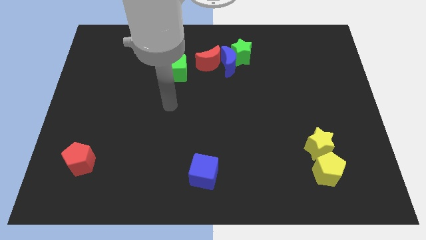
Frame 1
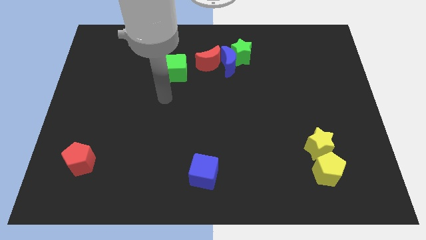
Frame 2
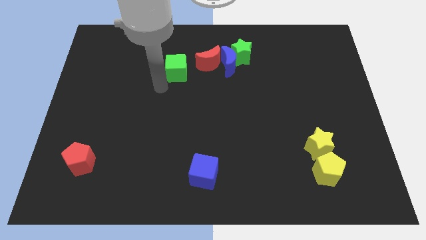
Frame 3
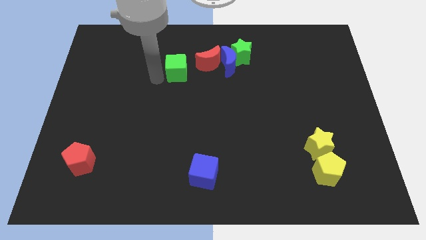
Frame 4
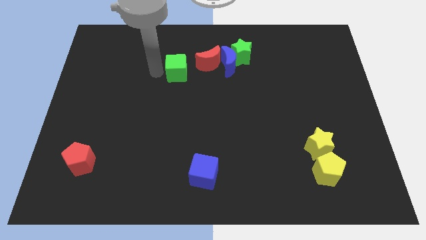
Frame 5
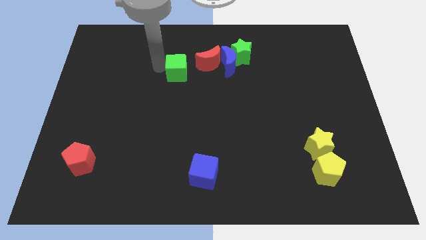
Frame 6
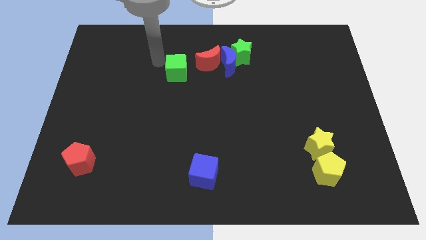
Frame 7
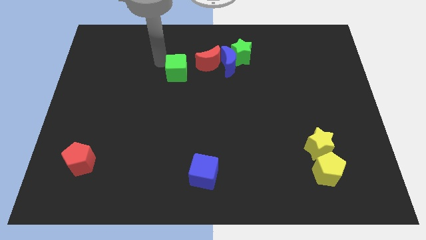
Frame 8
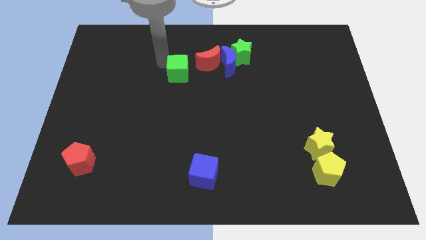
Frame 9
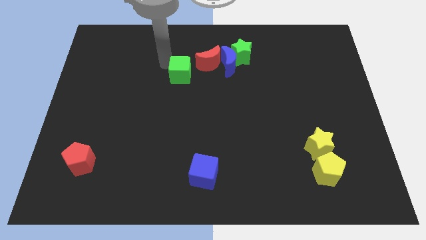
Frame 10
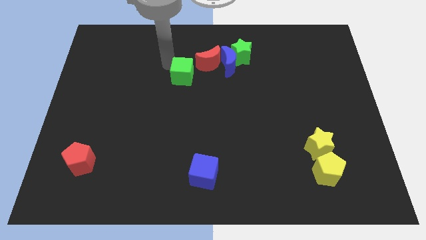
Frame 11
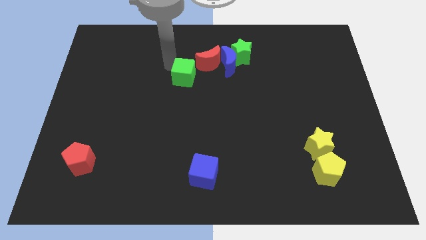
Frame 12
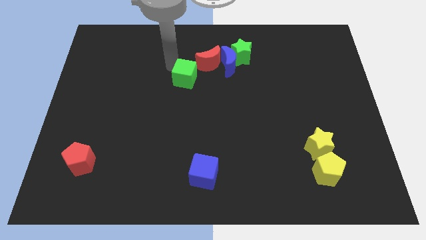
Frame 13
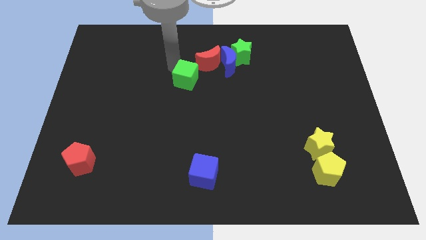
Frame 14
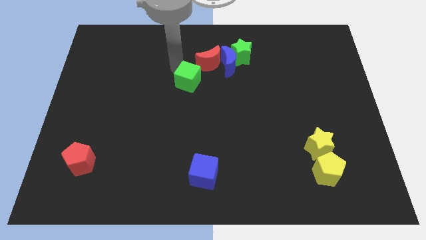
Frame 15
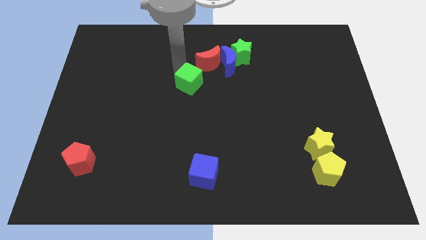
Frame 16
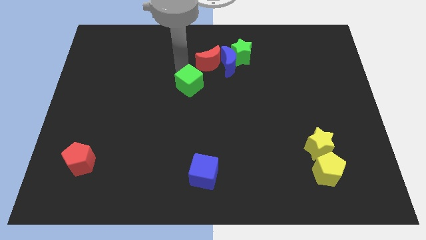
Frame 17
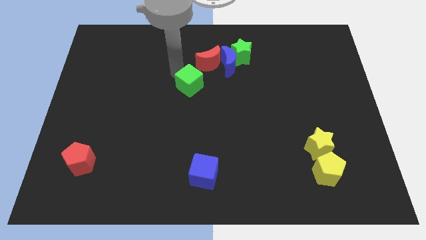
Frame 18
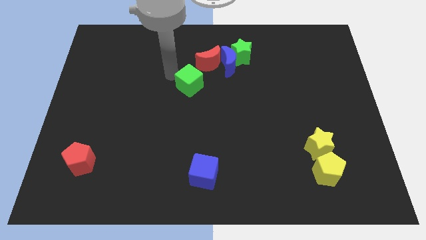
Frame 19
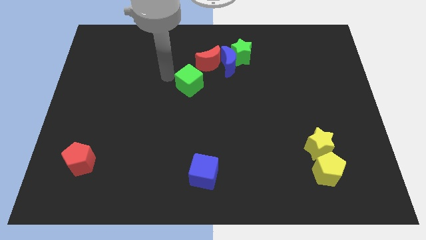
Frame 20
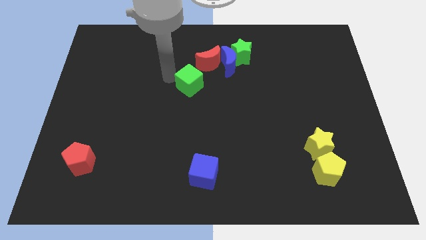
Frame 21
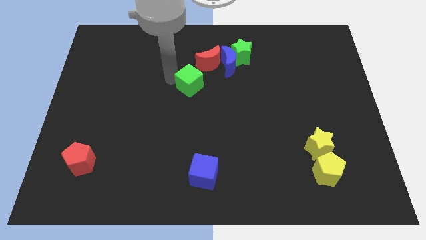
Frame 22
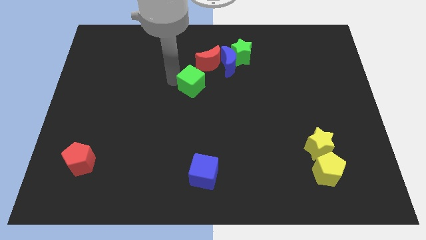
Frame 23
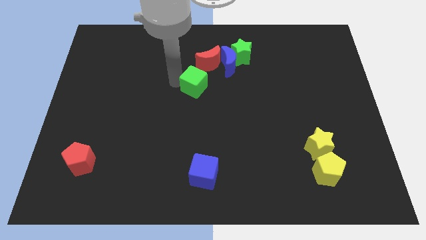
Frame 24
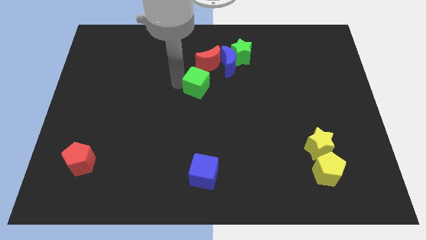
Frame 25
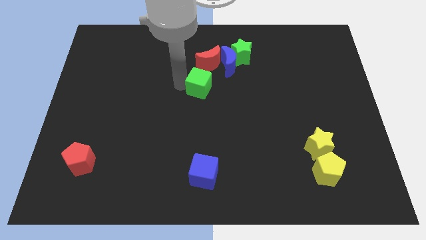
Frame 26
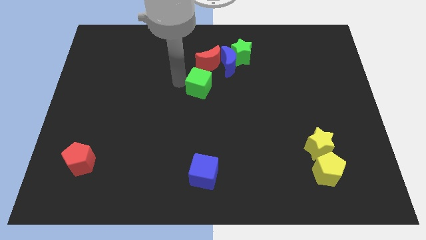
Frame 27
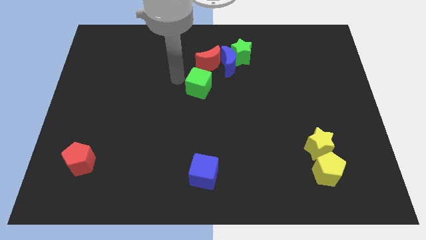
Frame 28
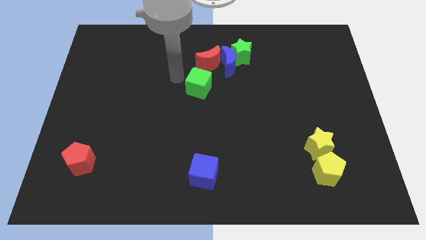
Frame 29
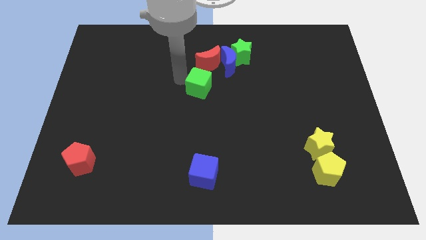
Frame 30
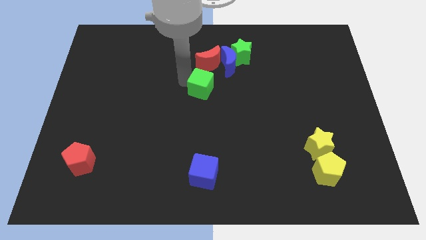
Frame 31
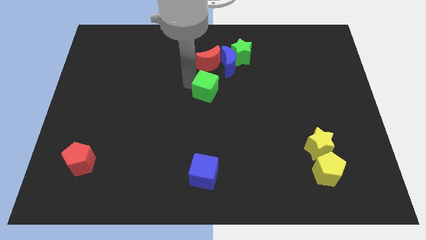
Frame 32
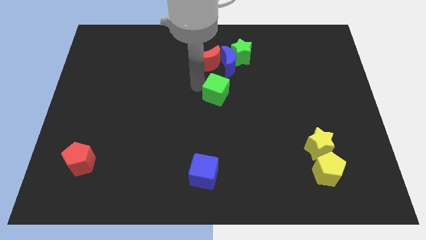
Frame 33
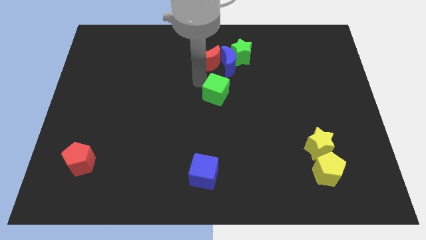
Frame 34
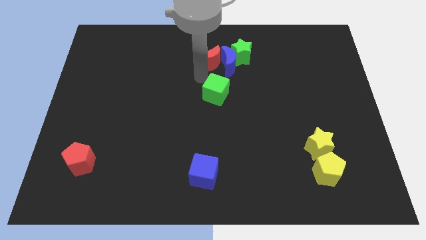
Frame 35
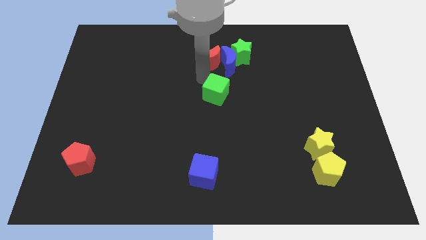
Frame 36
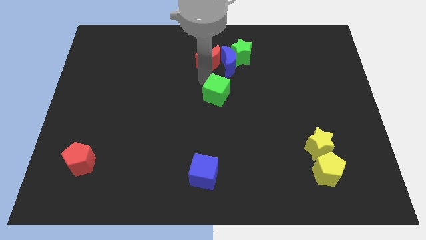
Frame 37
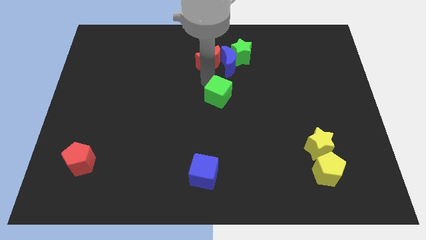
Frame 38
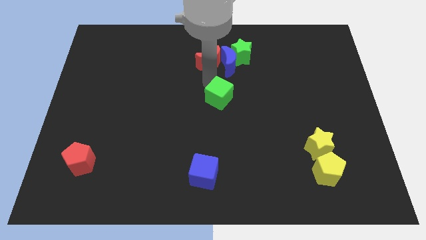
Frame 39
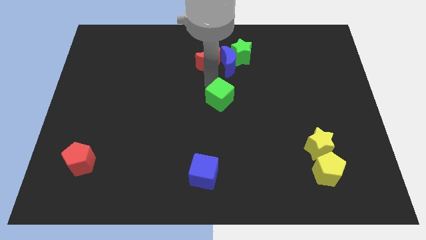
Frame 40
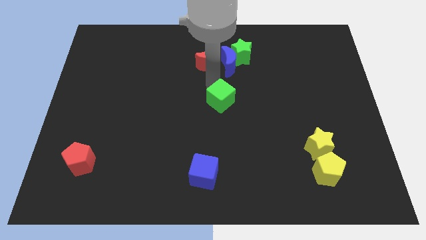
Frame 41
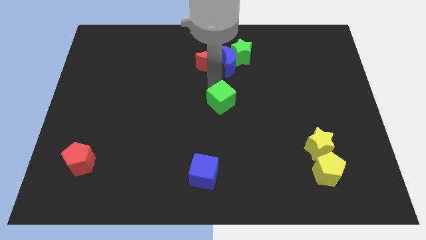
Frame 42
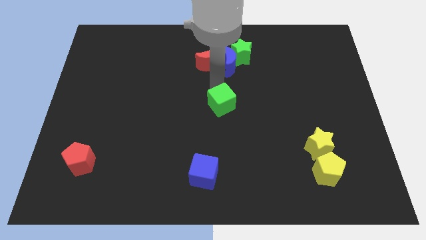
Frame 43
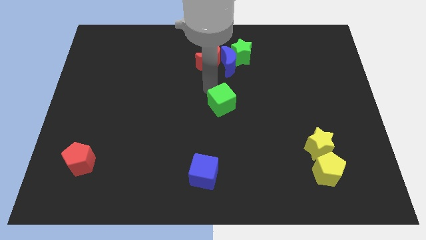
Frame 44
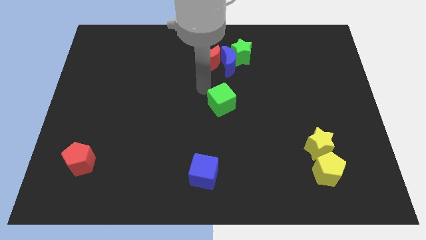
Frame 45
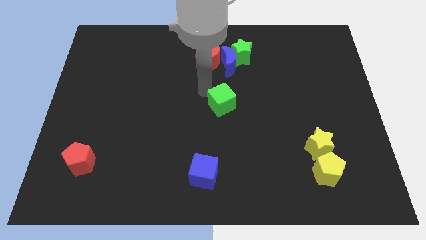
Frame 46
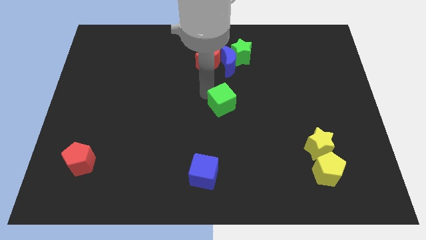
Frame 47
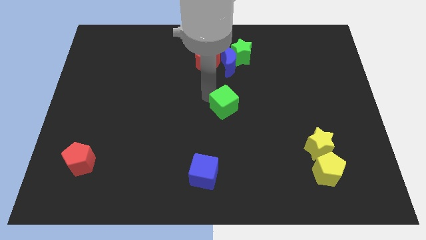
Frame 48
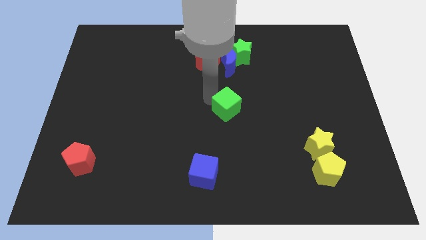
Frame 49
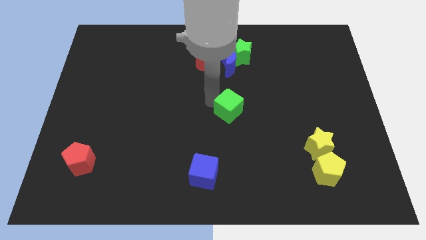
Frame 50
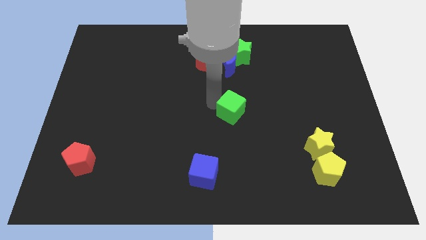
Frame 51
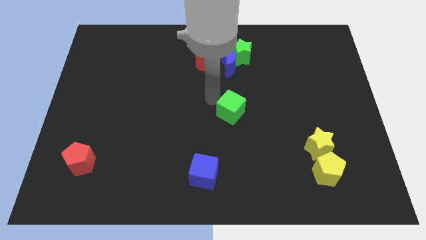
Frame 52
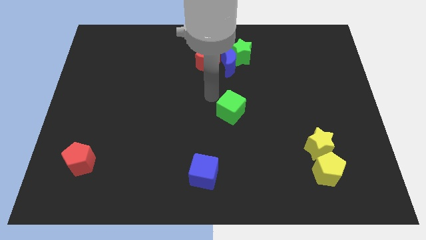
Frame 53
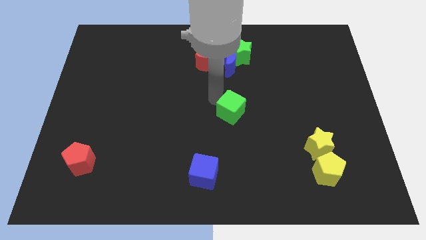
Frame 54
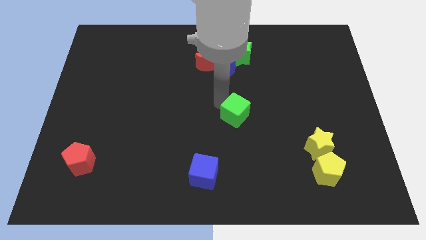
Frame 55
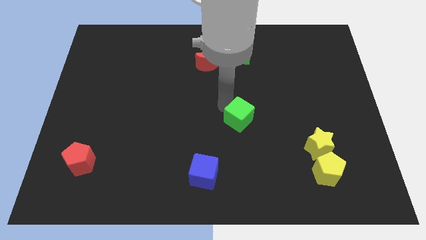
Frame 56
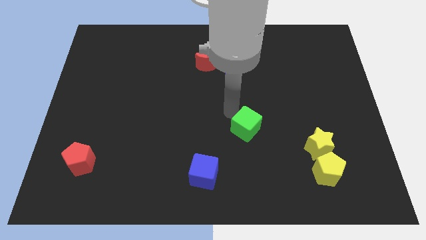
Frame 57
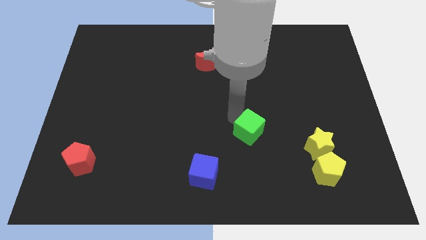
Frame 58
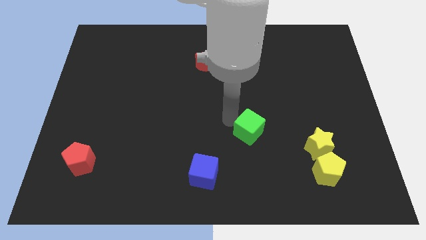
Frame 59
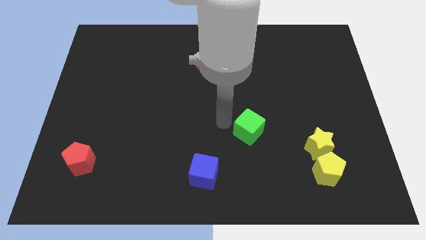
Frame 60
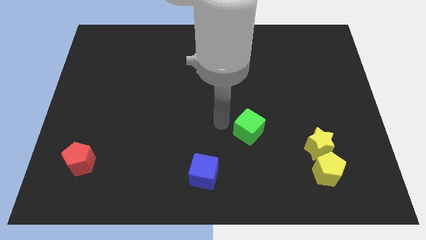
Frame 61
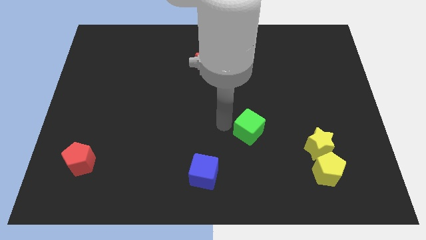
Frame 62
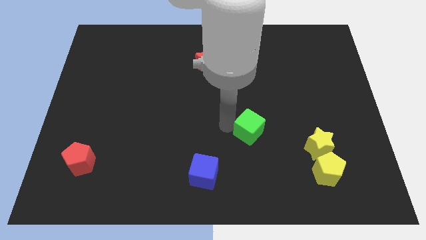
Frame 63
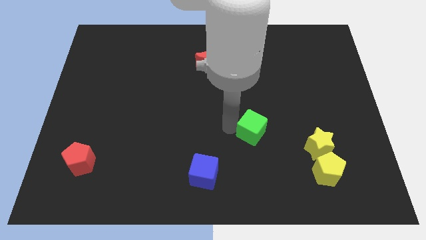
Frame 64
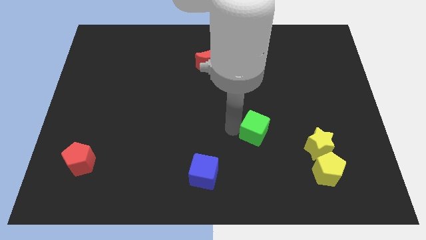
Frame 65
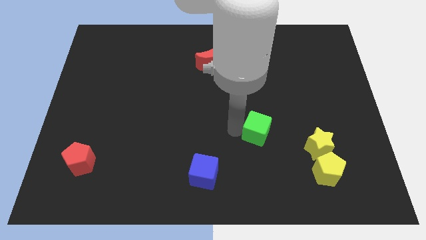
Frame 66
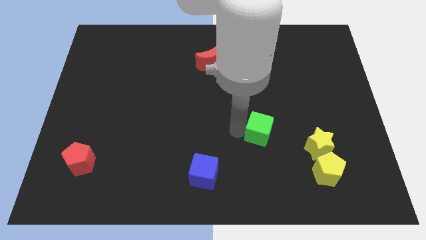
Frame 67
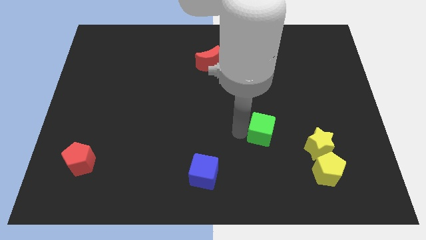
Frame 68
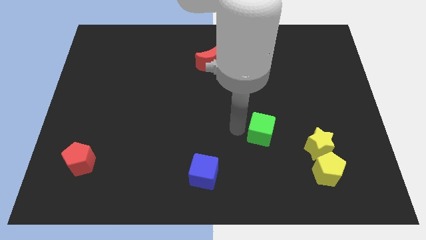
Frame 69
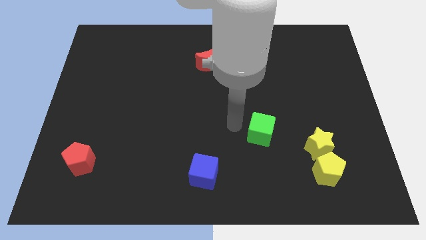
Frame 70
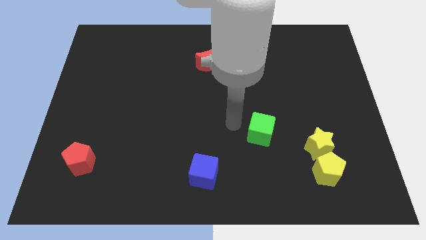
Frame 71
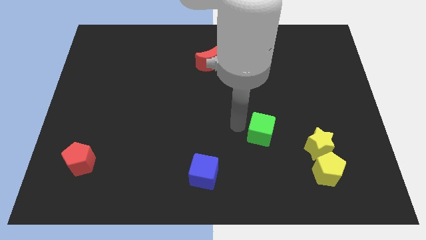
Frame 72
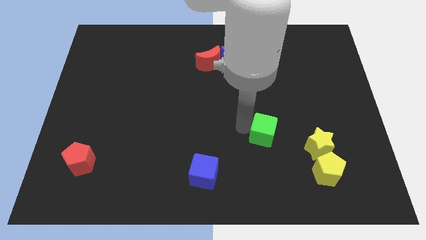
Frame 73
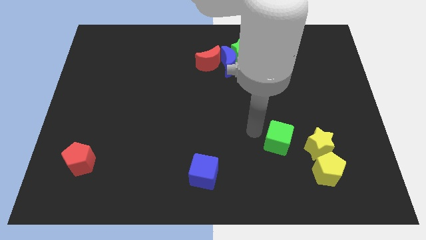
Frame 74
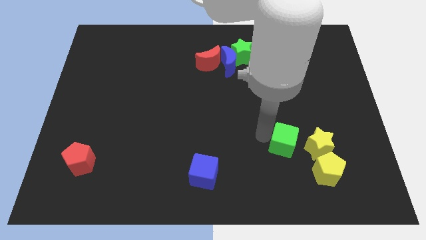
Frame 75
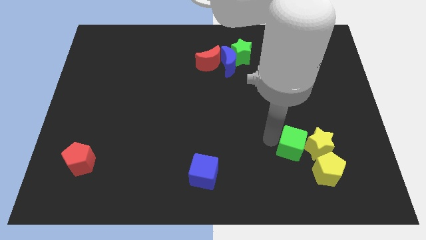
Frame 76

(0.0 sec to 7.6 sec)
move the green cube towards the yellow star

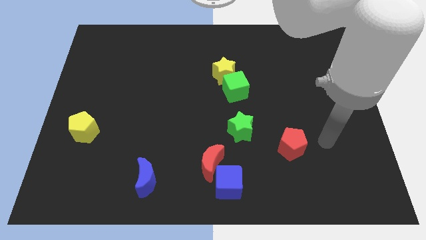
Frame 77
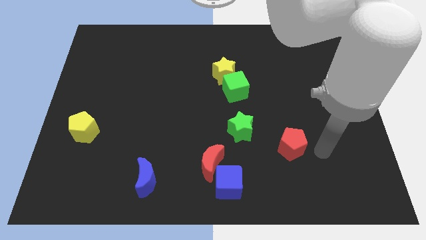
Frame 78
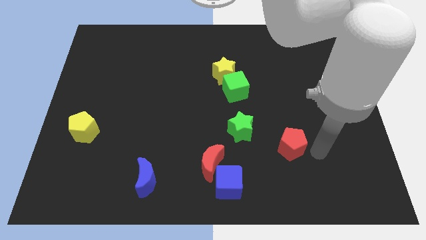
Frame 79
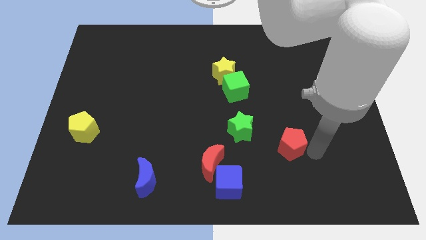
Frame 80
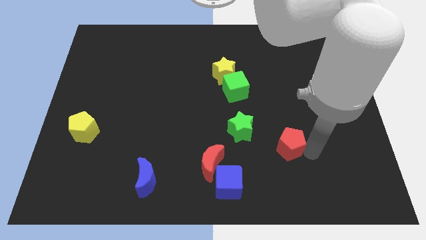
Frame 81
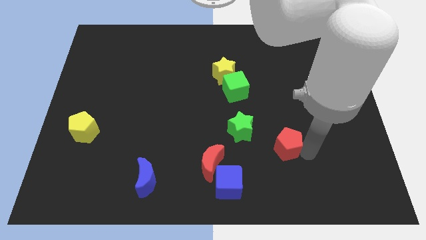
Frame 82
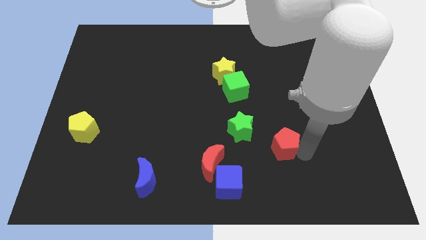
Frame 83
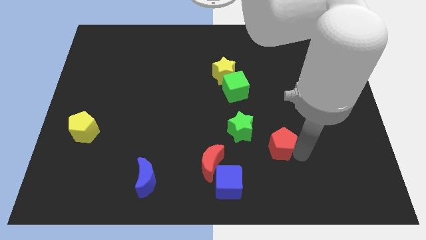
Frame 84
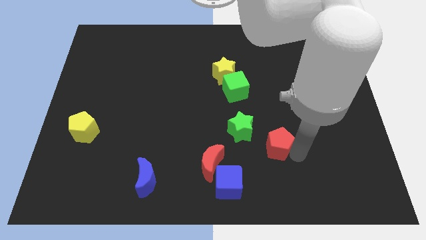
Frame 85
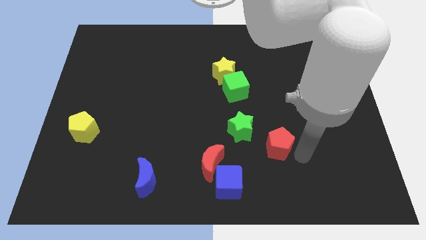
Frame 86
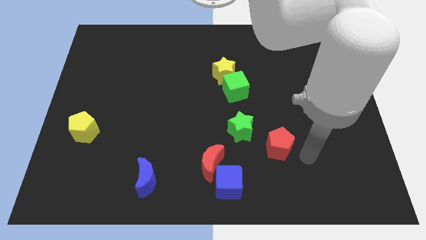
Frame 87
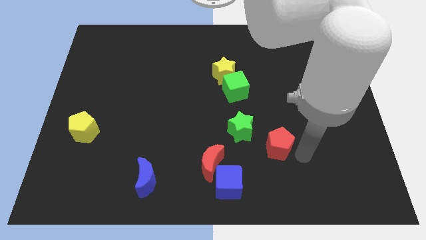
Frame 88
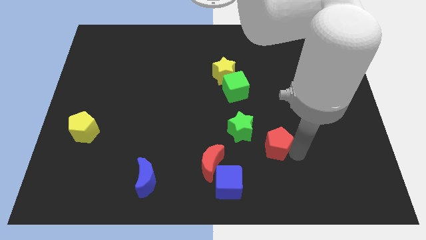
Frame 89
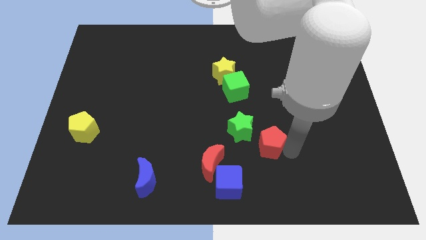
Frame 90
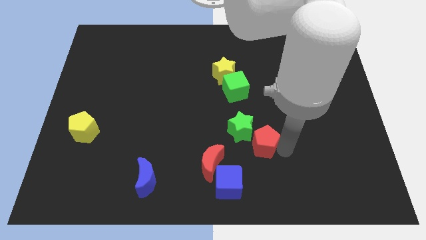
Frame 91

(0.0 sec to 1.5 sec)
move the red pentagon towards the green star
